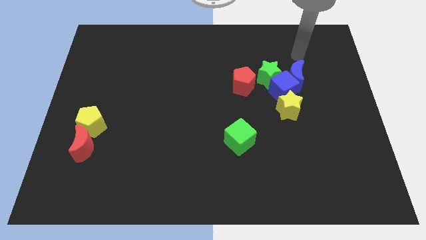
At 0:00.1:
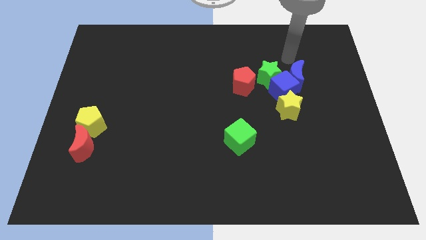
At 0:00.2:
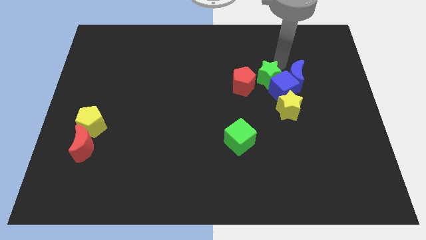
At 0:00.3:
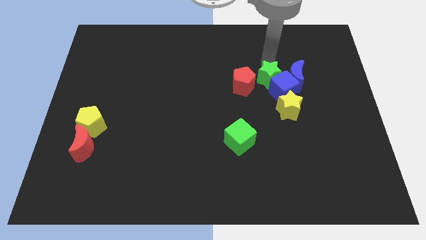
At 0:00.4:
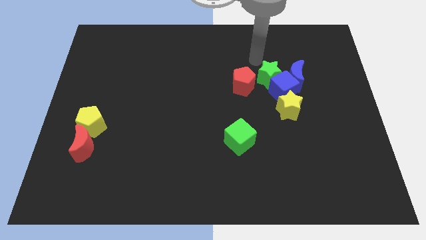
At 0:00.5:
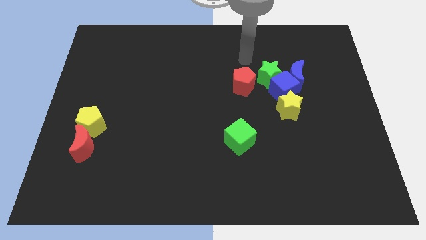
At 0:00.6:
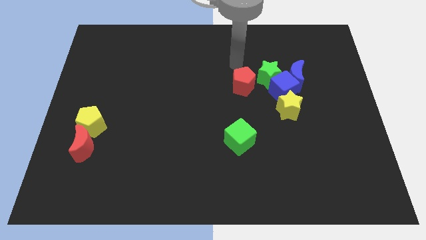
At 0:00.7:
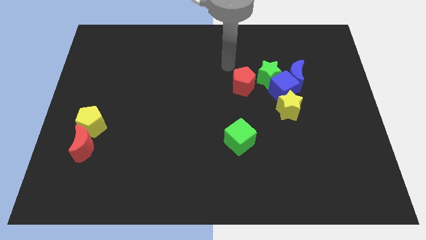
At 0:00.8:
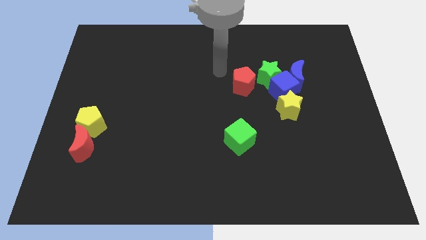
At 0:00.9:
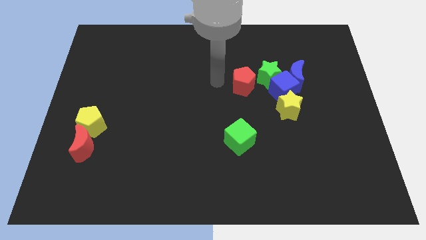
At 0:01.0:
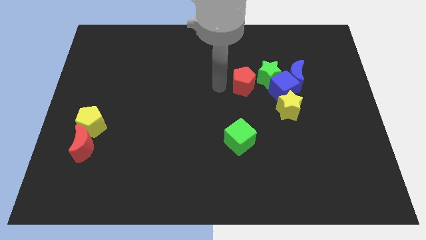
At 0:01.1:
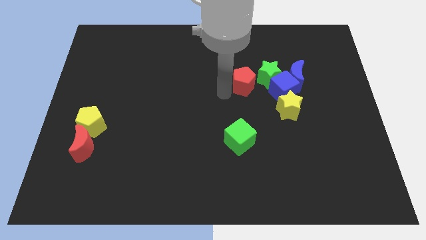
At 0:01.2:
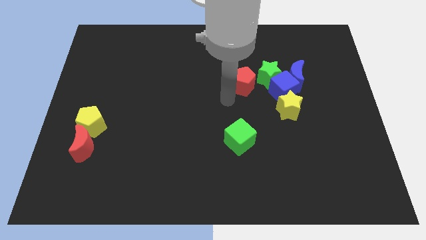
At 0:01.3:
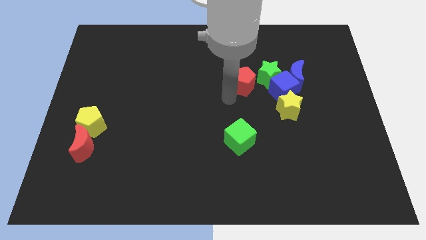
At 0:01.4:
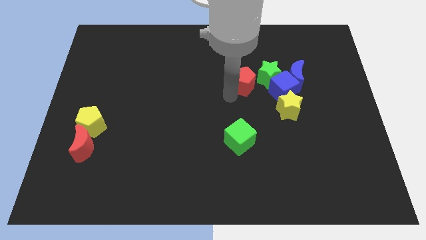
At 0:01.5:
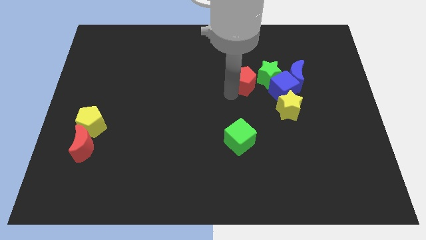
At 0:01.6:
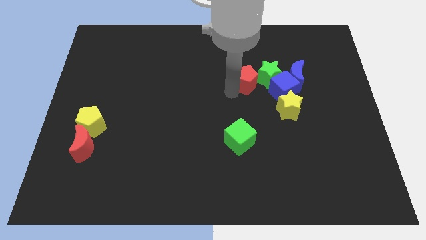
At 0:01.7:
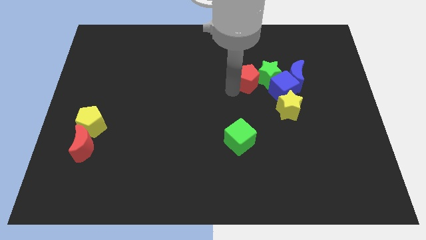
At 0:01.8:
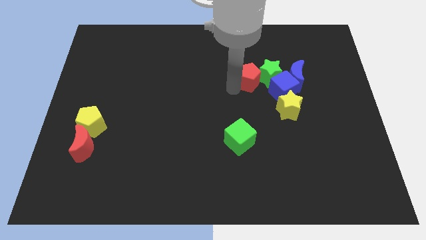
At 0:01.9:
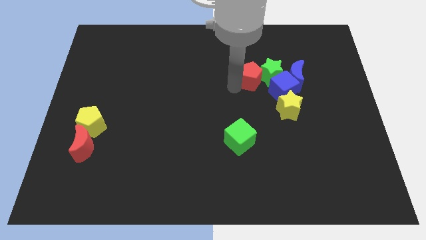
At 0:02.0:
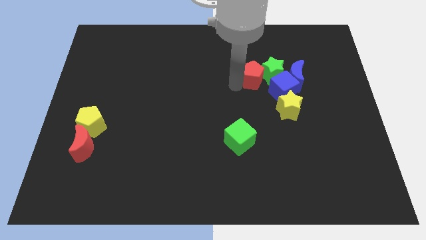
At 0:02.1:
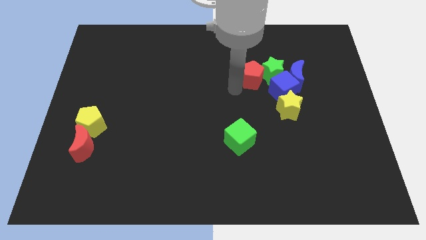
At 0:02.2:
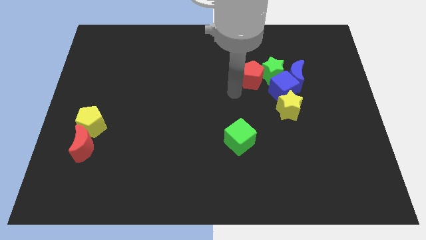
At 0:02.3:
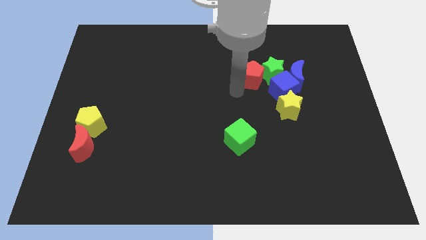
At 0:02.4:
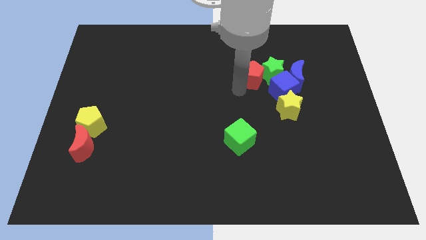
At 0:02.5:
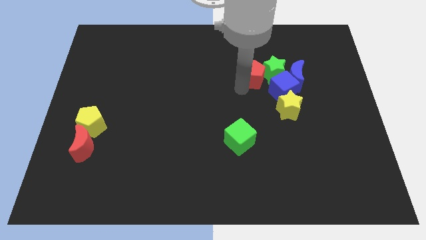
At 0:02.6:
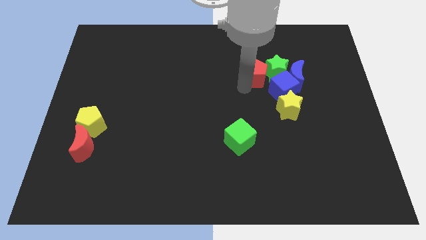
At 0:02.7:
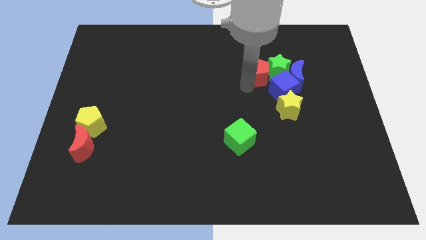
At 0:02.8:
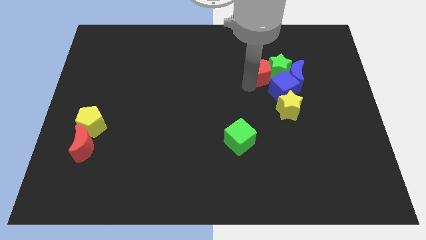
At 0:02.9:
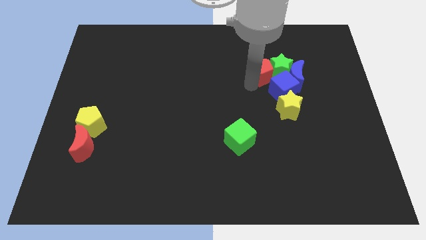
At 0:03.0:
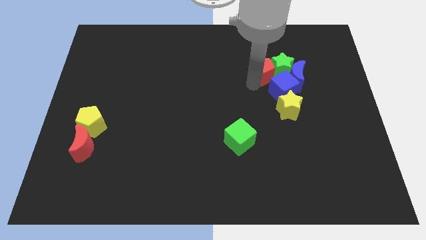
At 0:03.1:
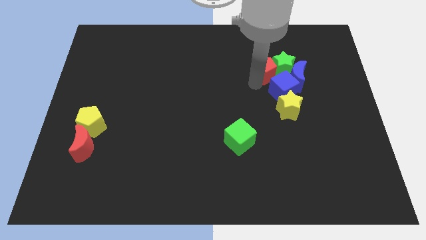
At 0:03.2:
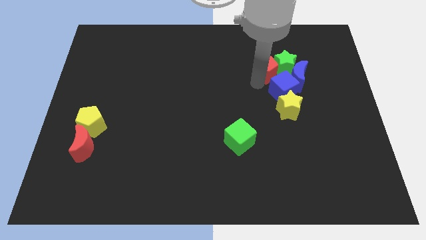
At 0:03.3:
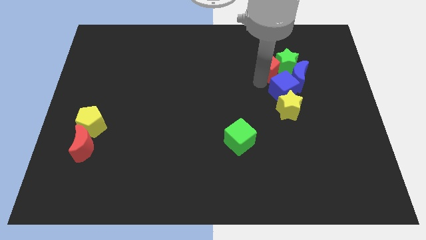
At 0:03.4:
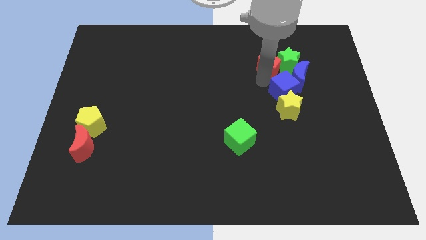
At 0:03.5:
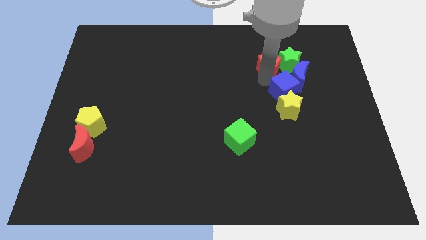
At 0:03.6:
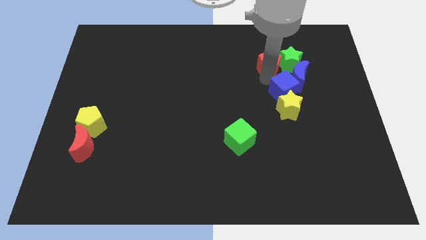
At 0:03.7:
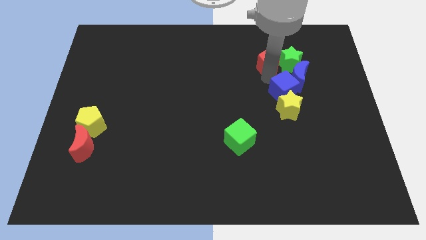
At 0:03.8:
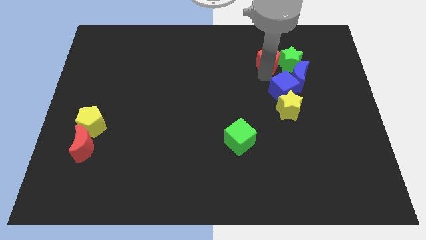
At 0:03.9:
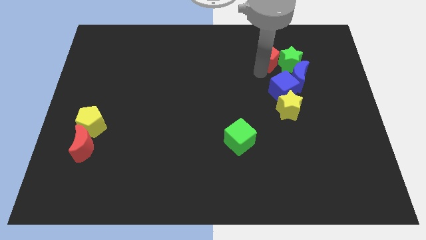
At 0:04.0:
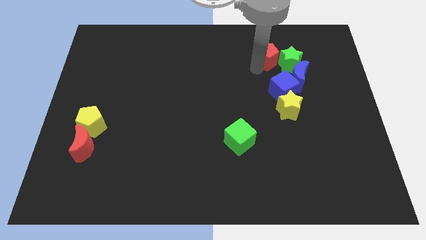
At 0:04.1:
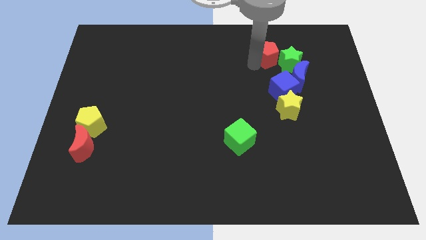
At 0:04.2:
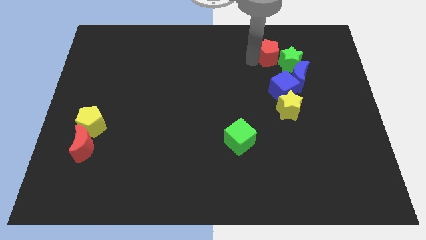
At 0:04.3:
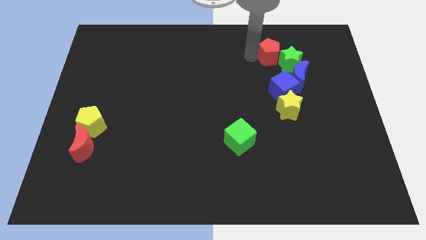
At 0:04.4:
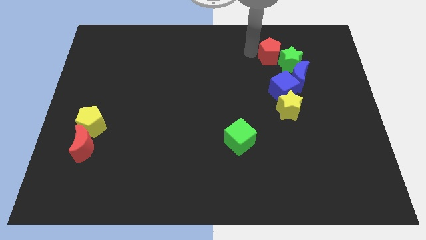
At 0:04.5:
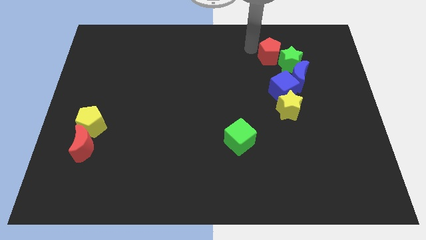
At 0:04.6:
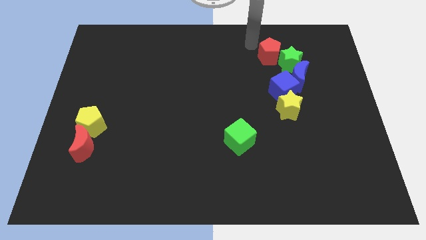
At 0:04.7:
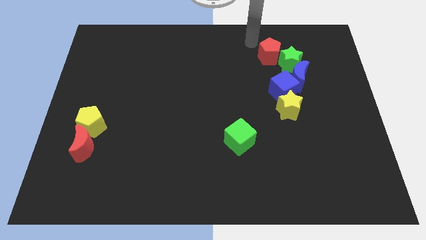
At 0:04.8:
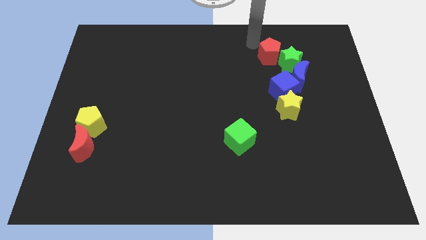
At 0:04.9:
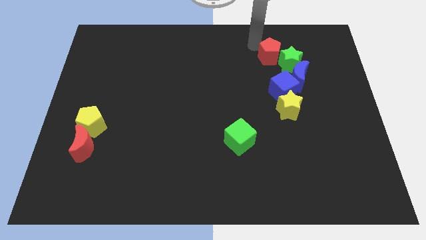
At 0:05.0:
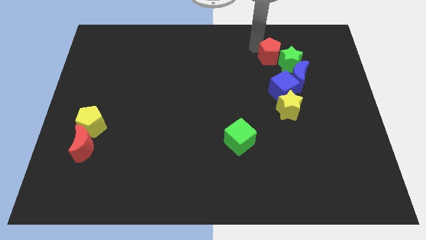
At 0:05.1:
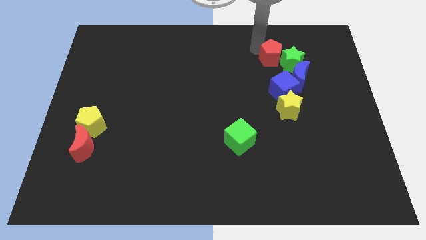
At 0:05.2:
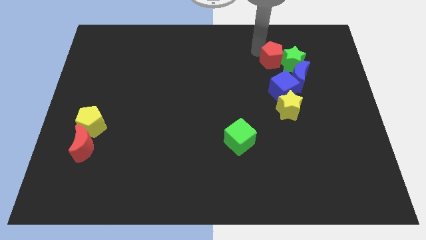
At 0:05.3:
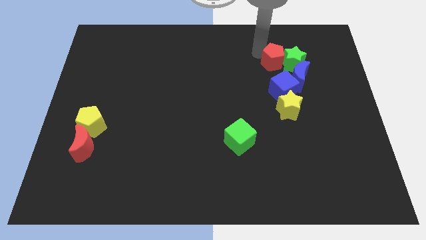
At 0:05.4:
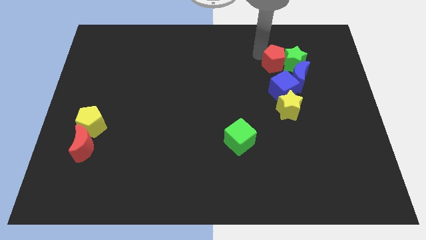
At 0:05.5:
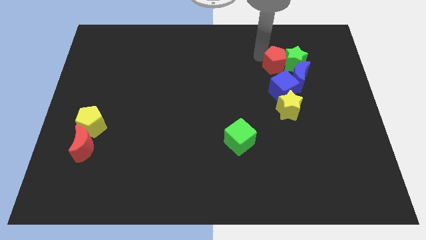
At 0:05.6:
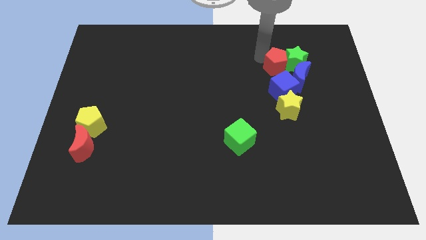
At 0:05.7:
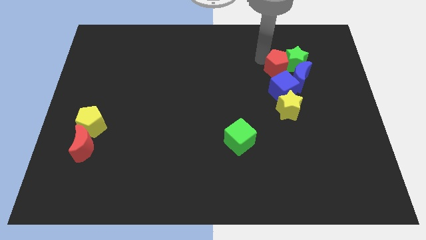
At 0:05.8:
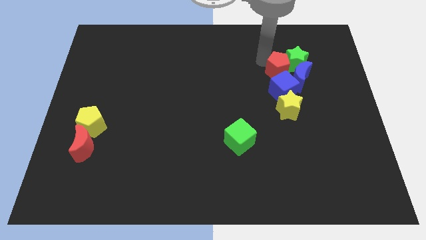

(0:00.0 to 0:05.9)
push the red pentagon next to the blue moon

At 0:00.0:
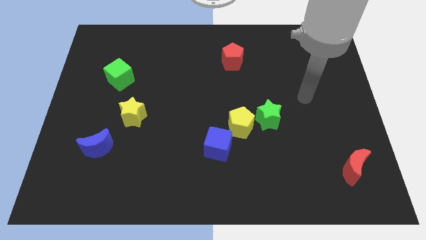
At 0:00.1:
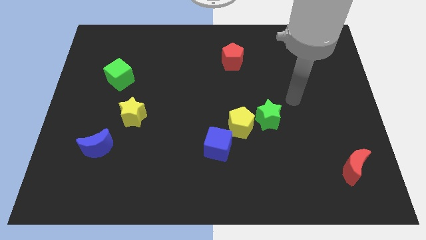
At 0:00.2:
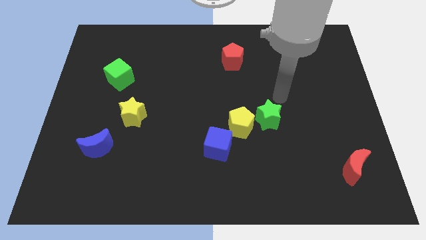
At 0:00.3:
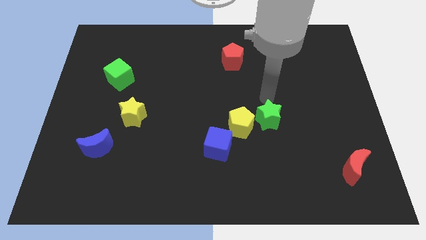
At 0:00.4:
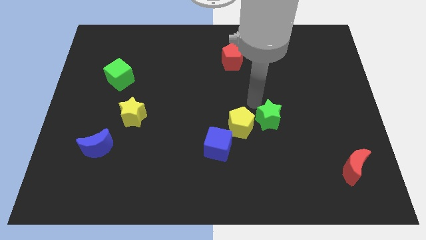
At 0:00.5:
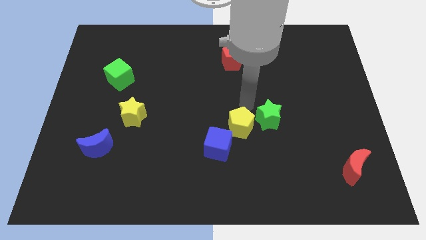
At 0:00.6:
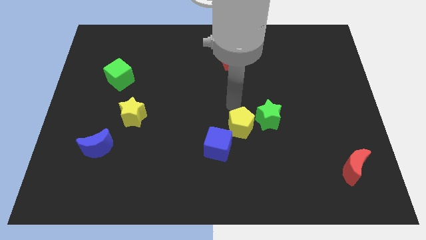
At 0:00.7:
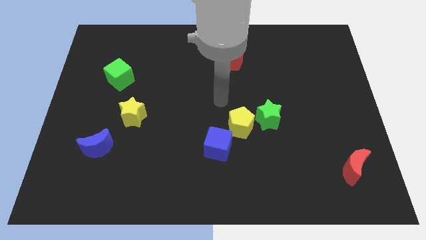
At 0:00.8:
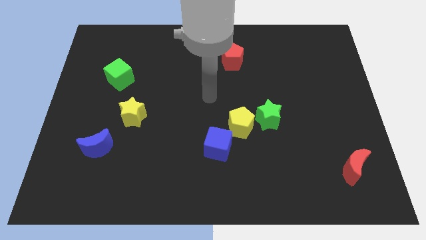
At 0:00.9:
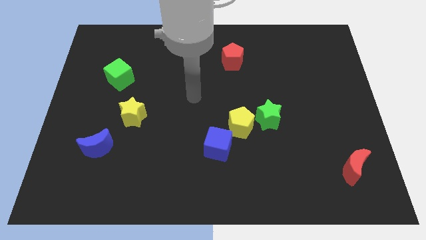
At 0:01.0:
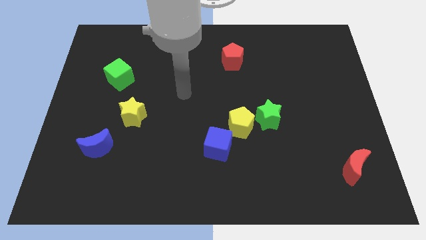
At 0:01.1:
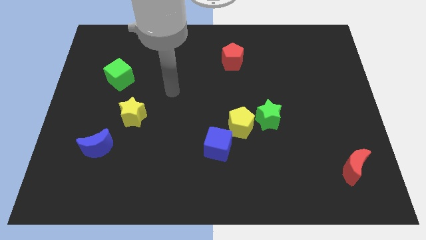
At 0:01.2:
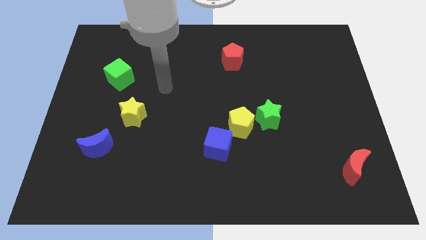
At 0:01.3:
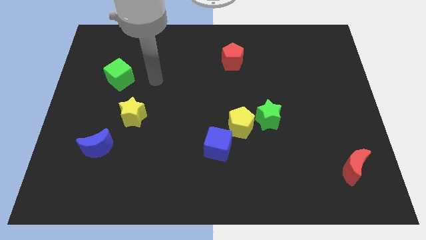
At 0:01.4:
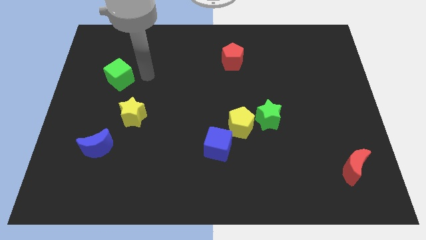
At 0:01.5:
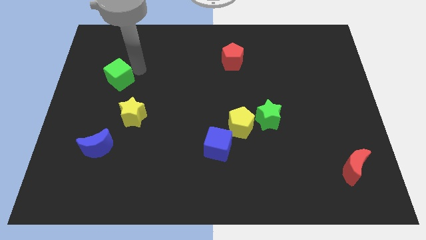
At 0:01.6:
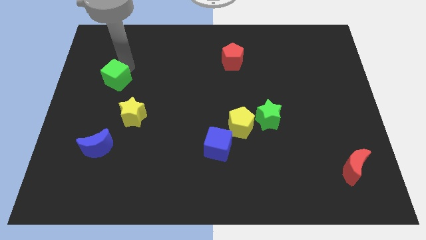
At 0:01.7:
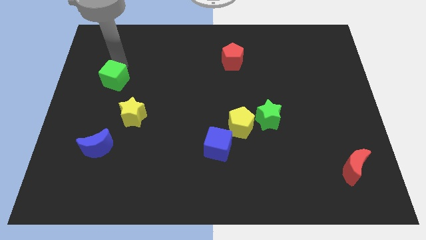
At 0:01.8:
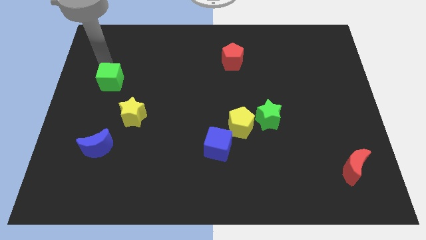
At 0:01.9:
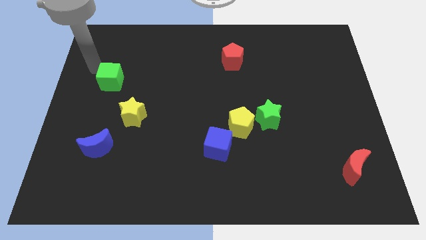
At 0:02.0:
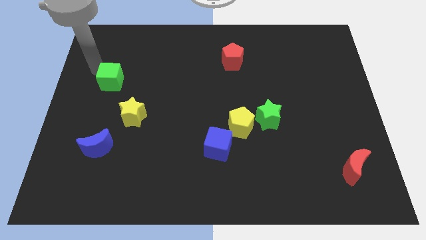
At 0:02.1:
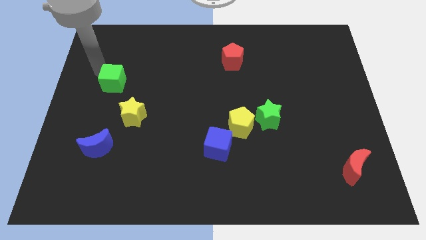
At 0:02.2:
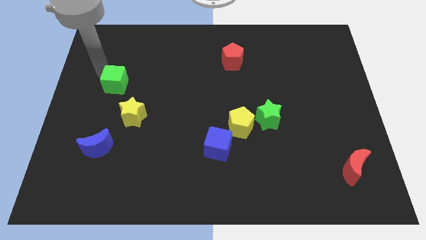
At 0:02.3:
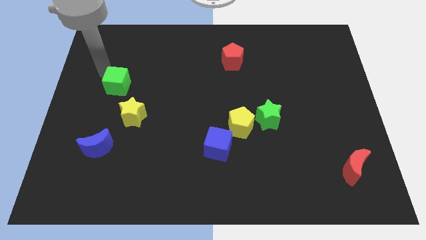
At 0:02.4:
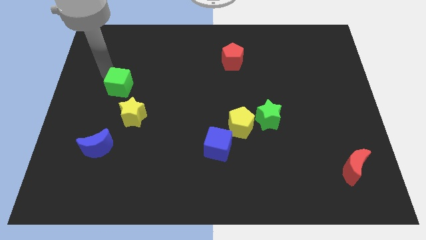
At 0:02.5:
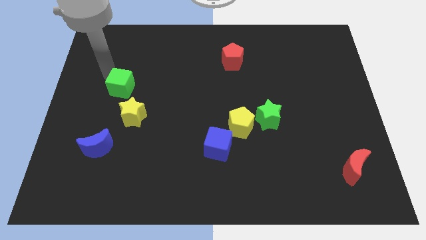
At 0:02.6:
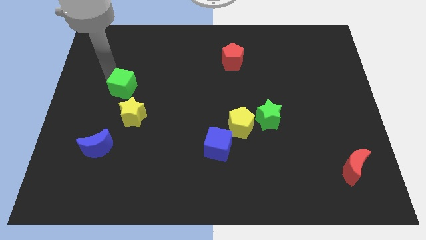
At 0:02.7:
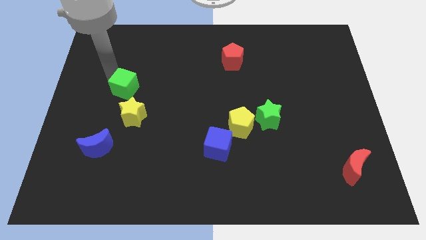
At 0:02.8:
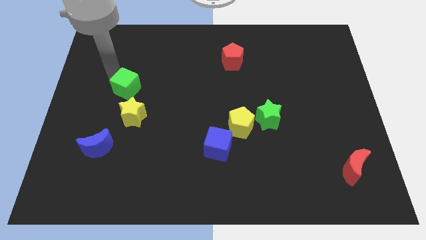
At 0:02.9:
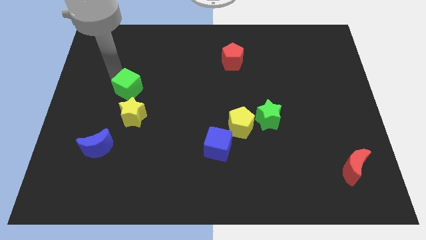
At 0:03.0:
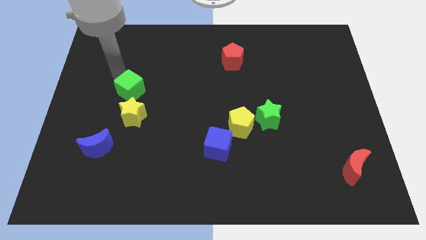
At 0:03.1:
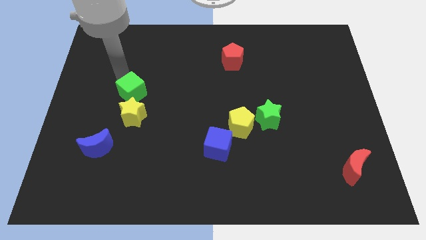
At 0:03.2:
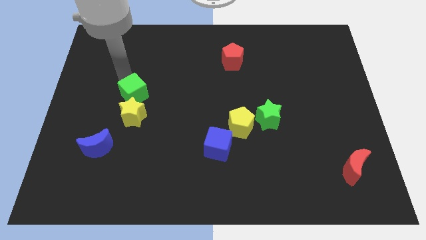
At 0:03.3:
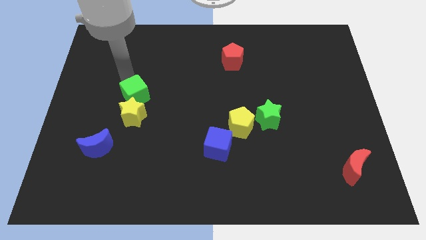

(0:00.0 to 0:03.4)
move the green cube to the yellow star
